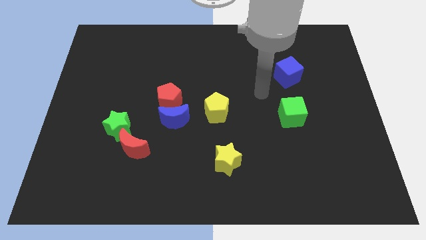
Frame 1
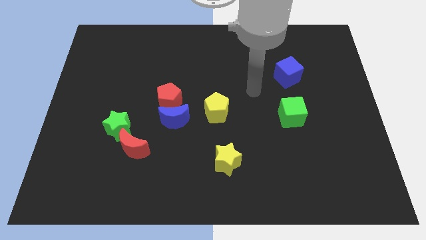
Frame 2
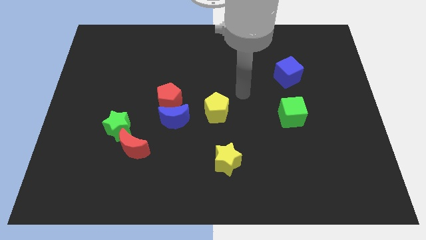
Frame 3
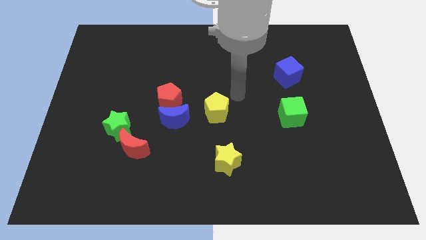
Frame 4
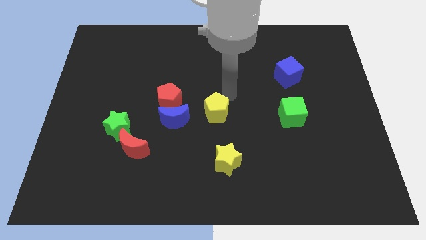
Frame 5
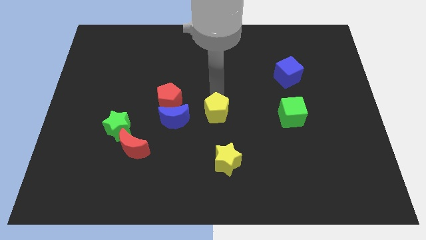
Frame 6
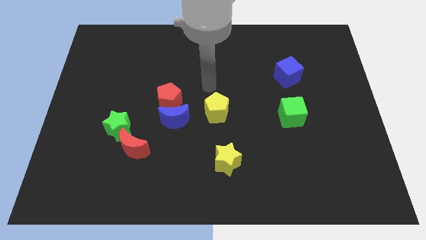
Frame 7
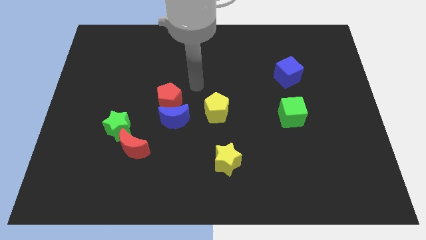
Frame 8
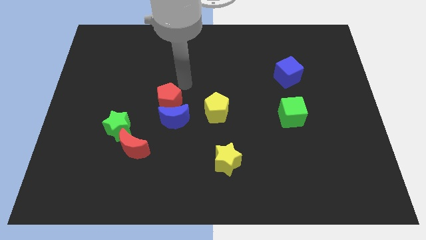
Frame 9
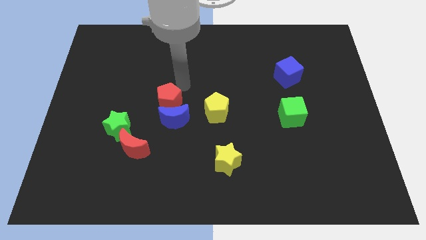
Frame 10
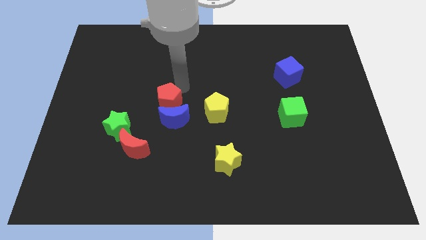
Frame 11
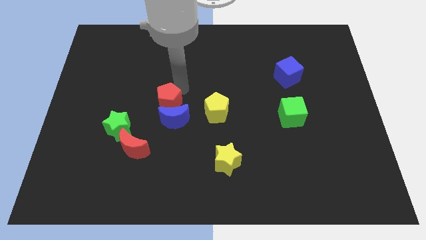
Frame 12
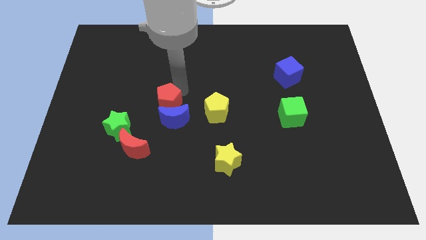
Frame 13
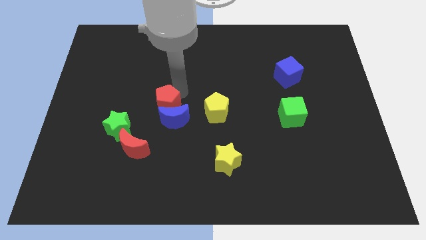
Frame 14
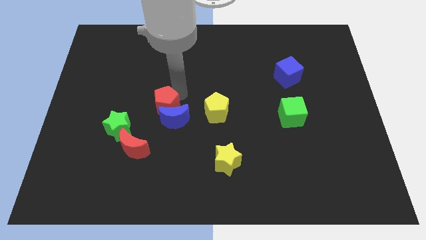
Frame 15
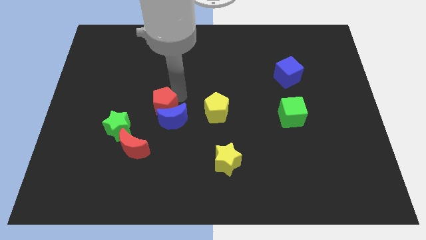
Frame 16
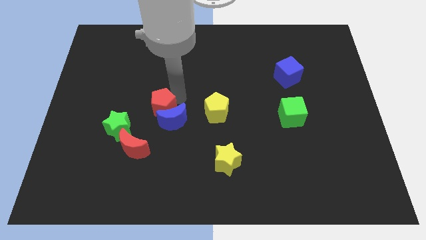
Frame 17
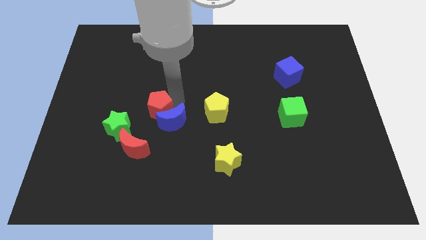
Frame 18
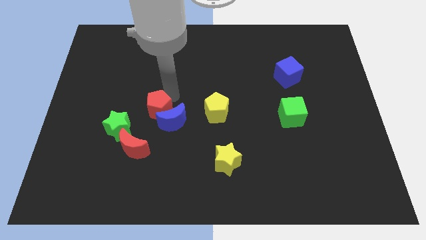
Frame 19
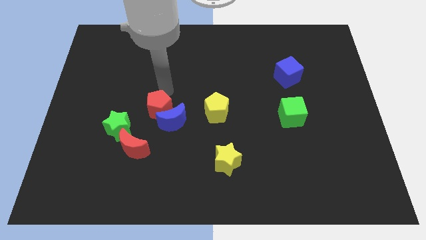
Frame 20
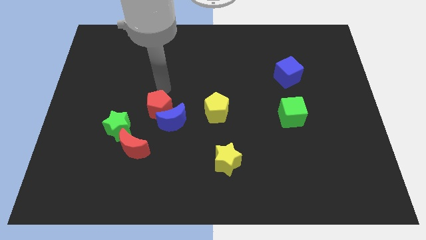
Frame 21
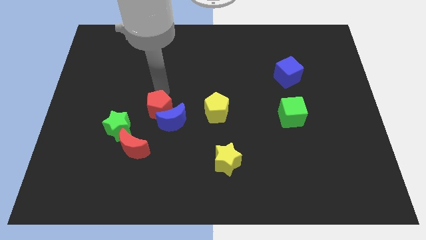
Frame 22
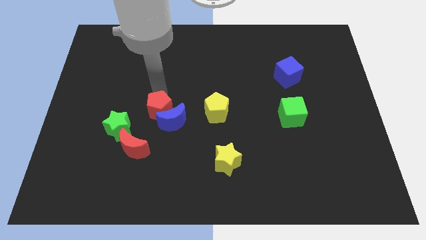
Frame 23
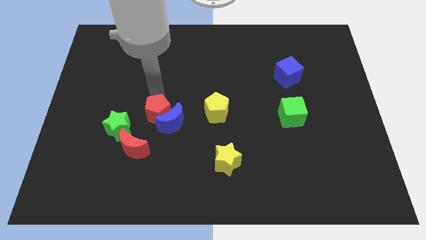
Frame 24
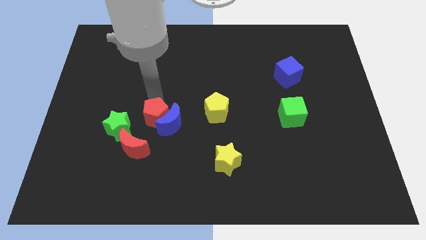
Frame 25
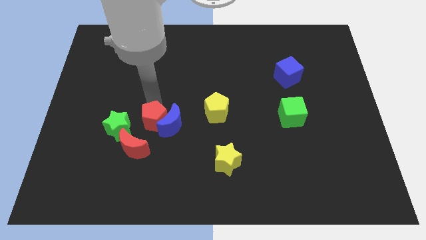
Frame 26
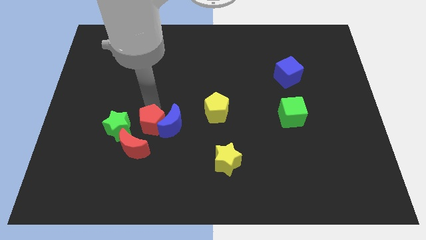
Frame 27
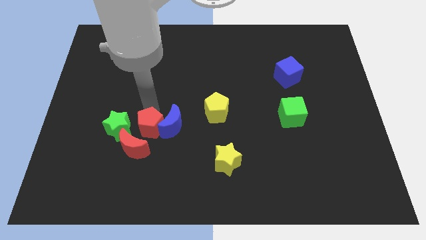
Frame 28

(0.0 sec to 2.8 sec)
slightly slide the red pentagon down

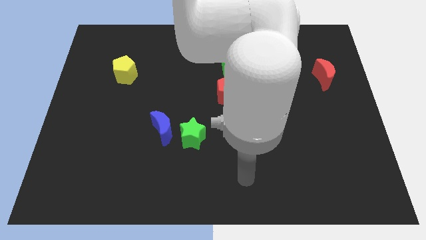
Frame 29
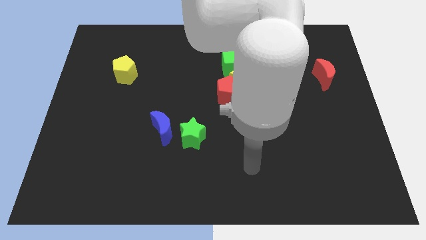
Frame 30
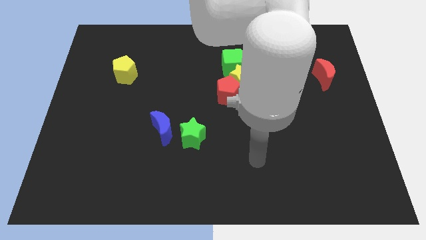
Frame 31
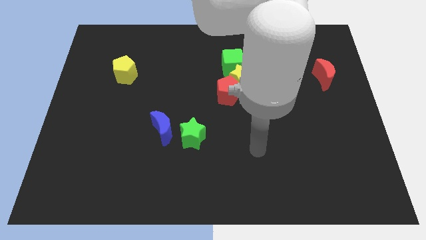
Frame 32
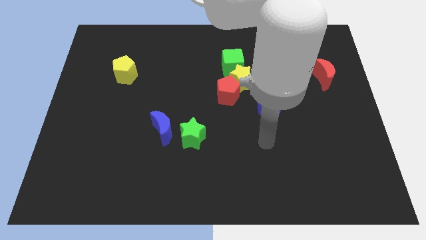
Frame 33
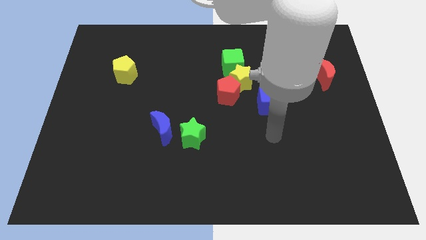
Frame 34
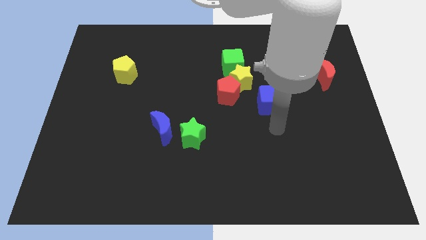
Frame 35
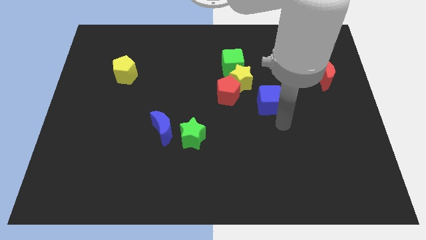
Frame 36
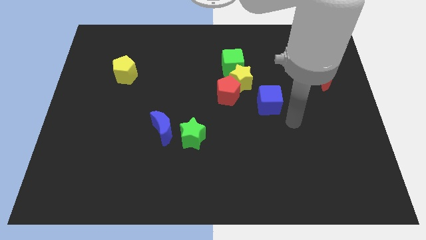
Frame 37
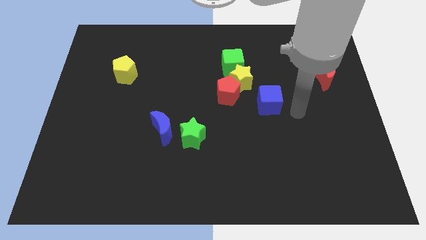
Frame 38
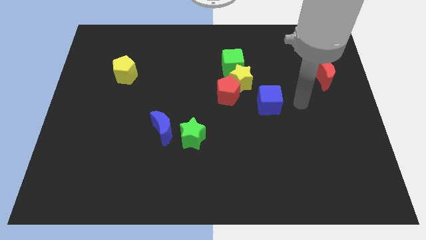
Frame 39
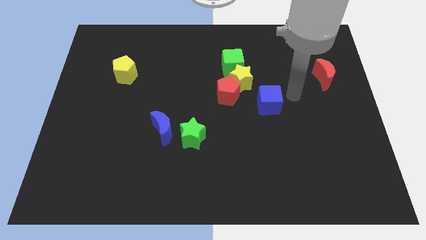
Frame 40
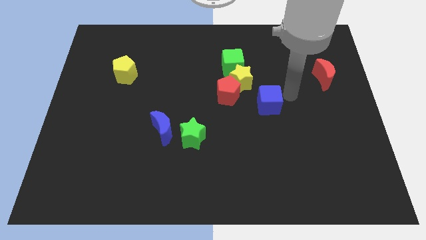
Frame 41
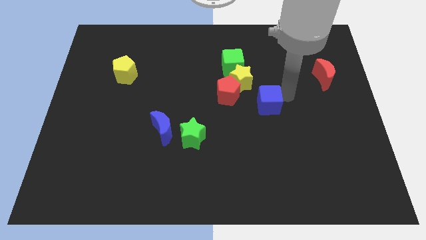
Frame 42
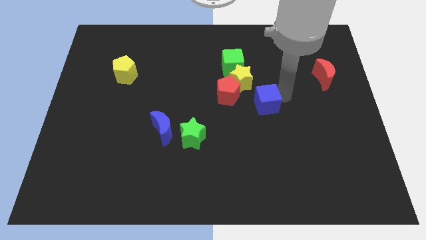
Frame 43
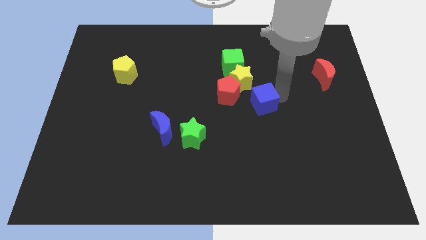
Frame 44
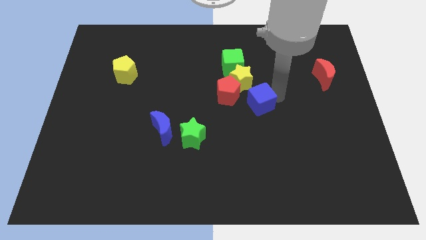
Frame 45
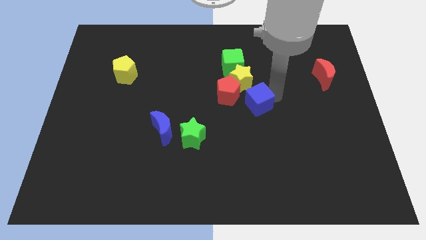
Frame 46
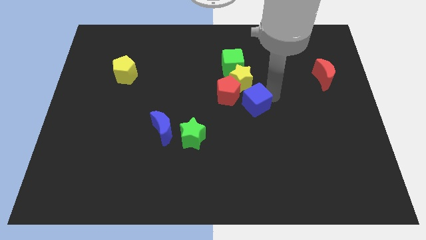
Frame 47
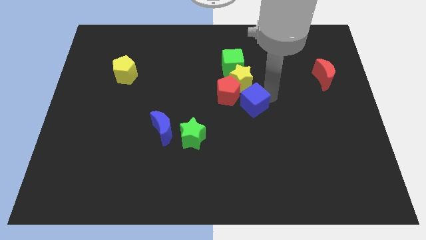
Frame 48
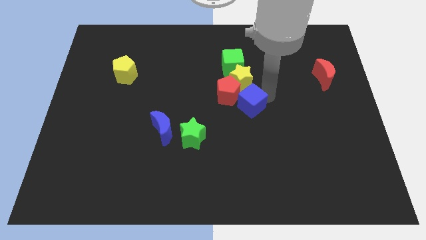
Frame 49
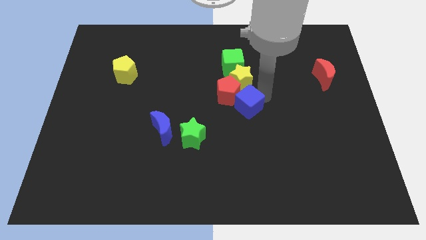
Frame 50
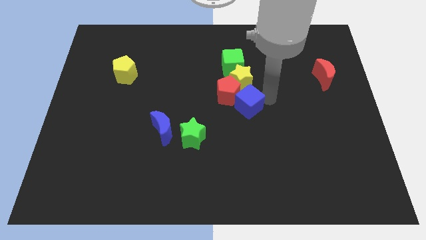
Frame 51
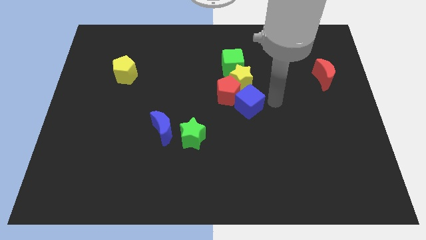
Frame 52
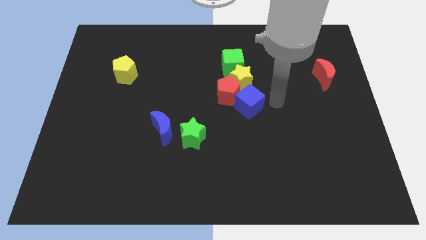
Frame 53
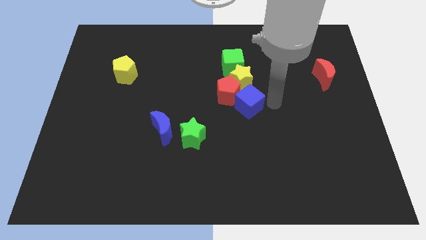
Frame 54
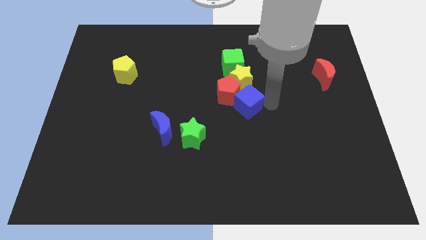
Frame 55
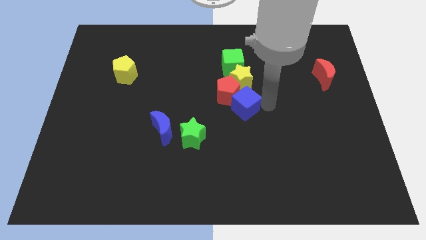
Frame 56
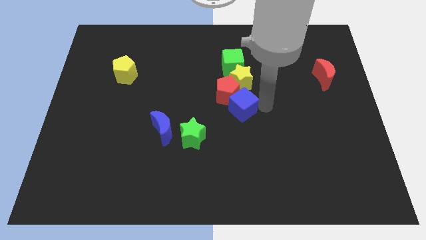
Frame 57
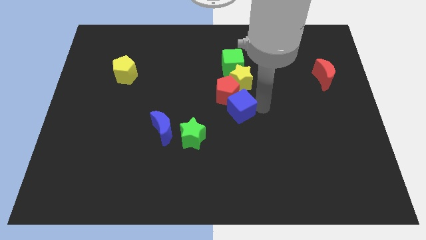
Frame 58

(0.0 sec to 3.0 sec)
slide the blue cube left somewhat

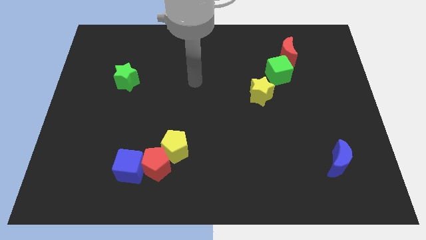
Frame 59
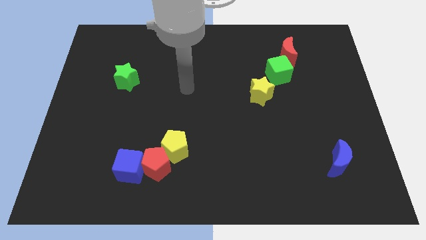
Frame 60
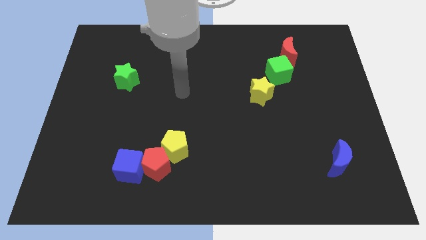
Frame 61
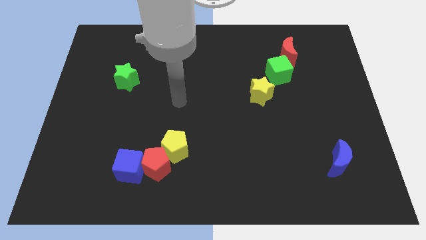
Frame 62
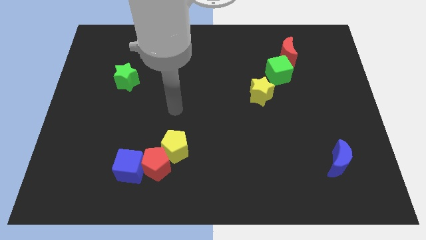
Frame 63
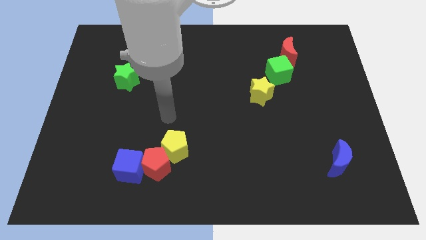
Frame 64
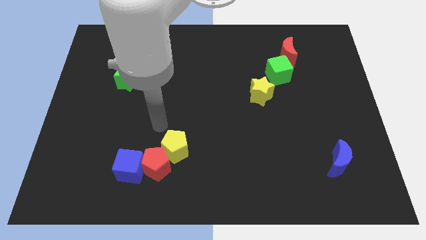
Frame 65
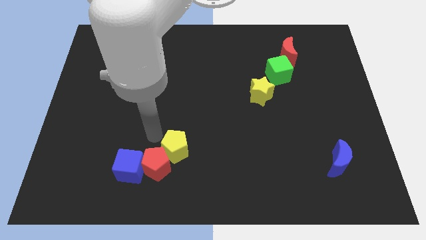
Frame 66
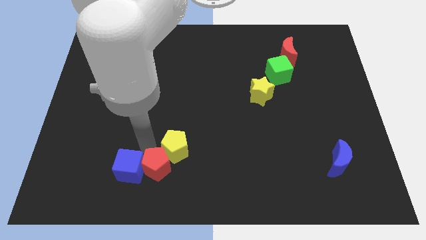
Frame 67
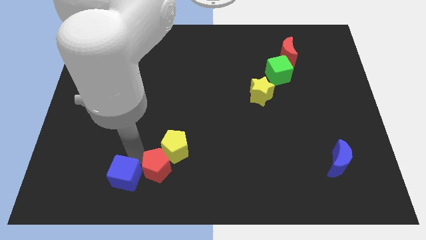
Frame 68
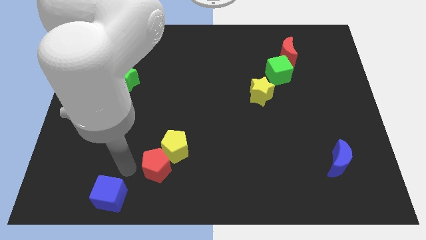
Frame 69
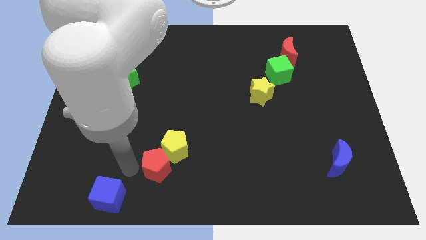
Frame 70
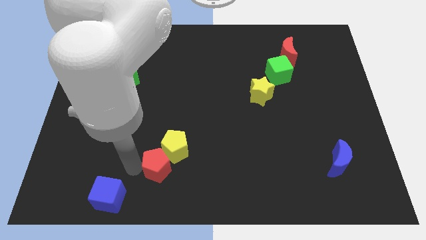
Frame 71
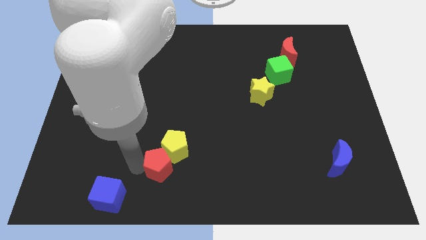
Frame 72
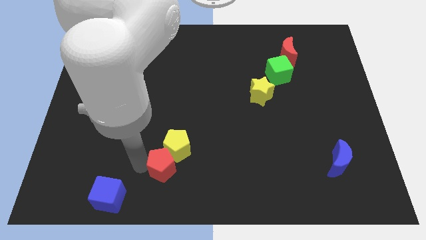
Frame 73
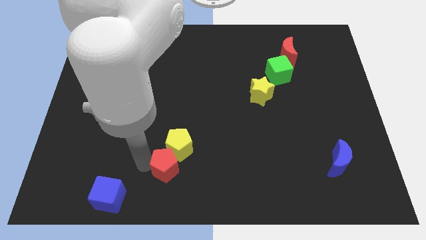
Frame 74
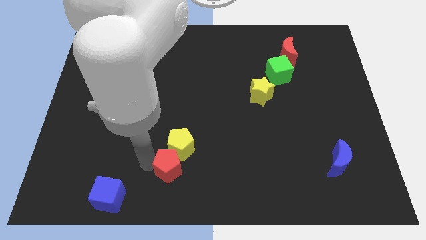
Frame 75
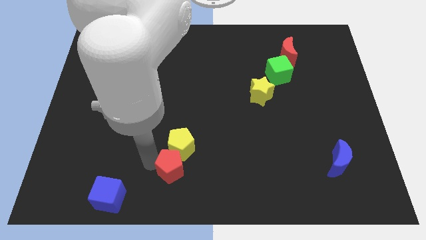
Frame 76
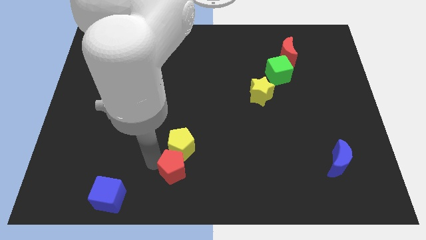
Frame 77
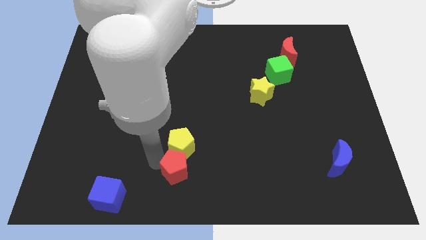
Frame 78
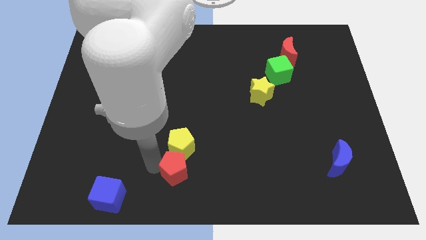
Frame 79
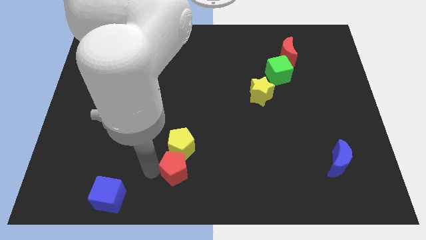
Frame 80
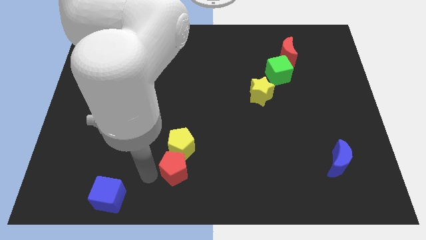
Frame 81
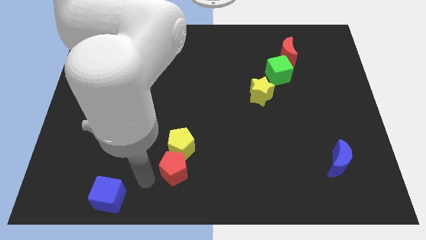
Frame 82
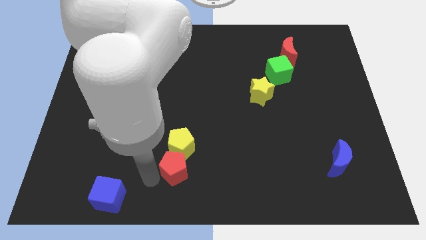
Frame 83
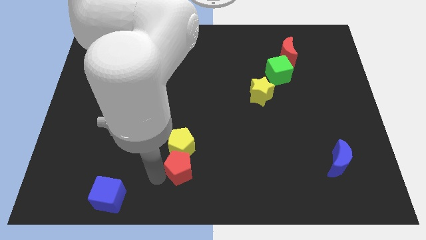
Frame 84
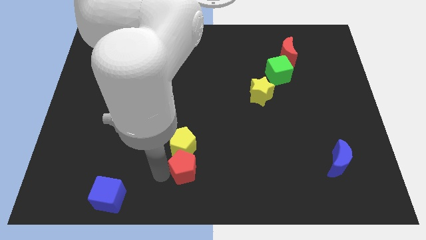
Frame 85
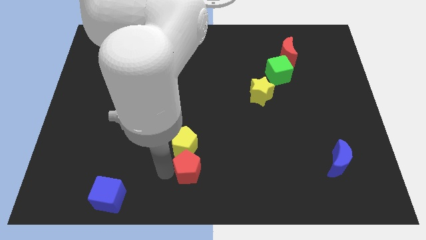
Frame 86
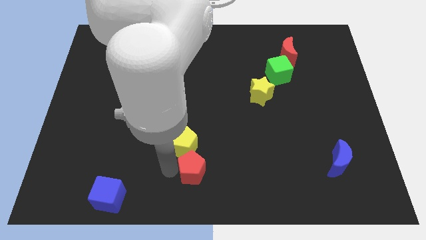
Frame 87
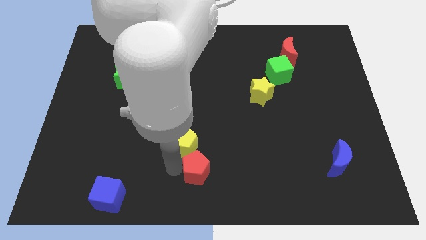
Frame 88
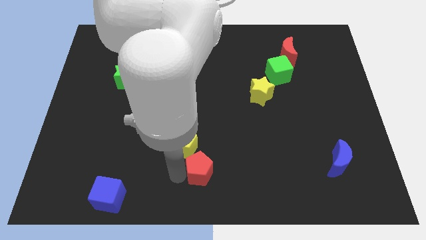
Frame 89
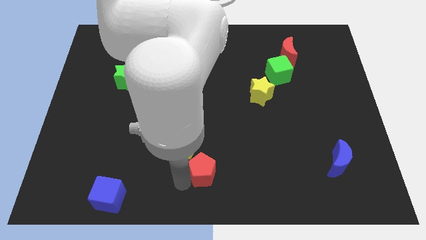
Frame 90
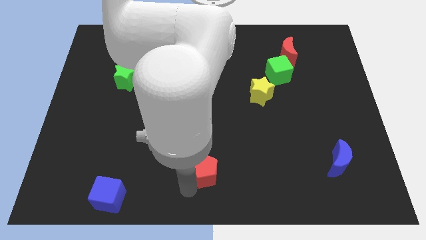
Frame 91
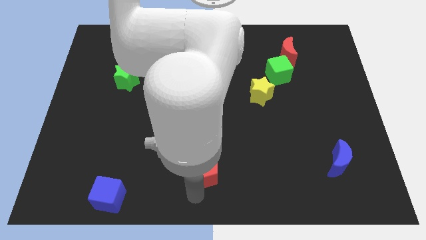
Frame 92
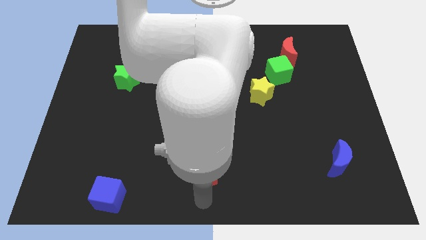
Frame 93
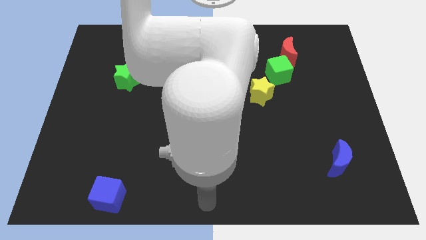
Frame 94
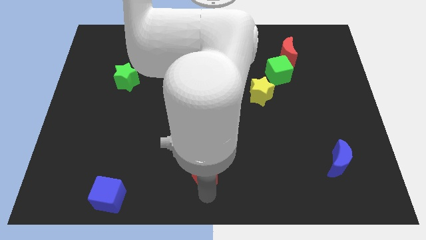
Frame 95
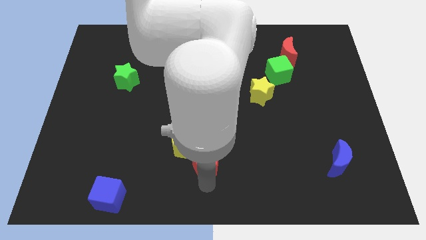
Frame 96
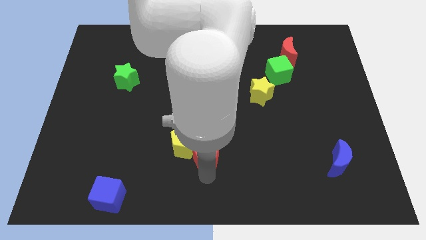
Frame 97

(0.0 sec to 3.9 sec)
move the red pentagon a little bit upwards and right
